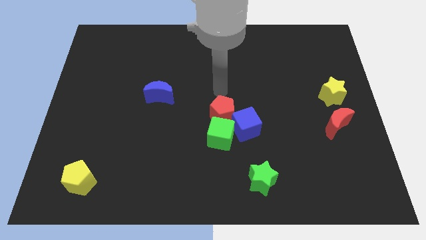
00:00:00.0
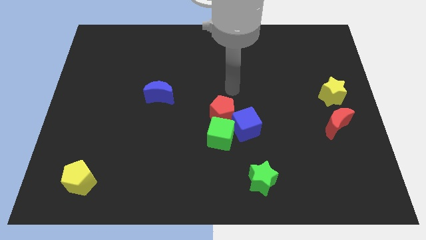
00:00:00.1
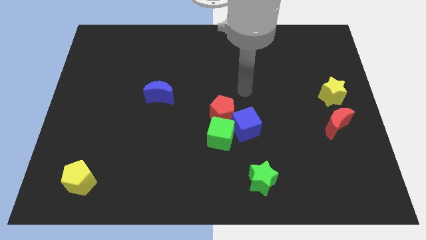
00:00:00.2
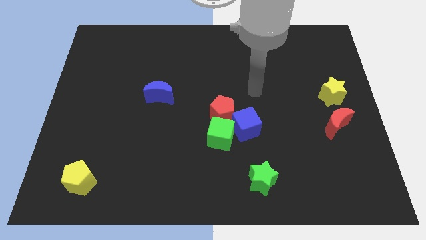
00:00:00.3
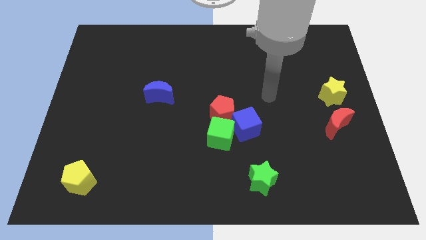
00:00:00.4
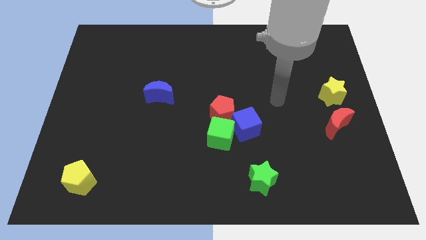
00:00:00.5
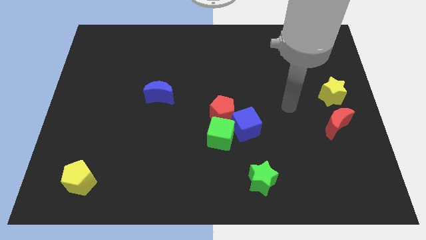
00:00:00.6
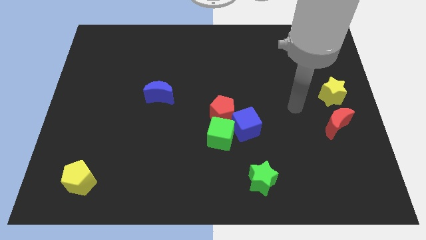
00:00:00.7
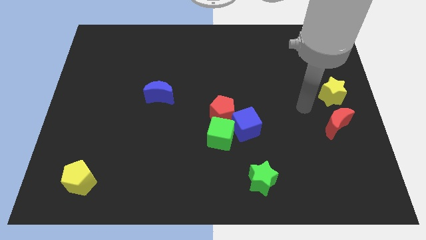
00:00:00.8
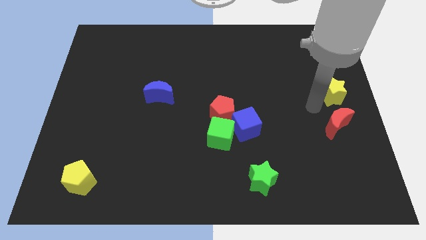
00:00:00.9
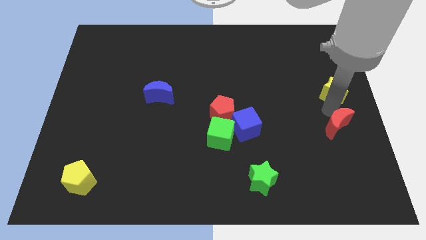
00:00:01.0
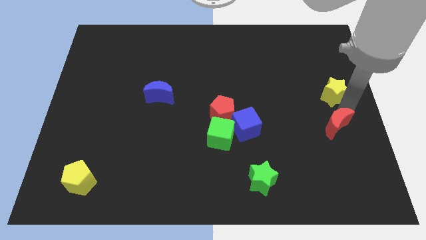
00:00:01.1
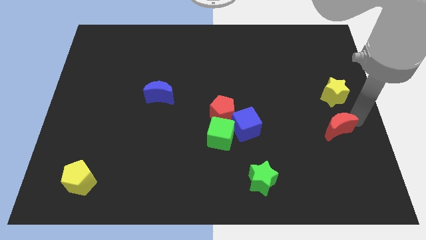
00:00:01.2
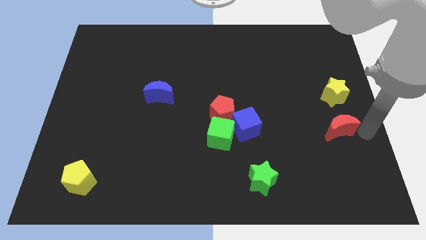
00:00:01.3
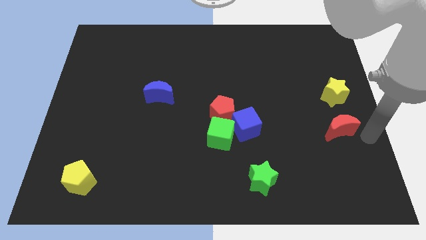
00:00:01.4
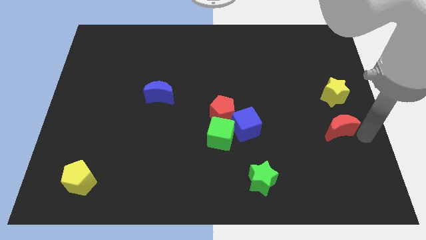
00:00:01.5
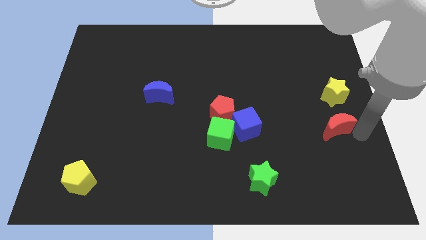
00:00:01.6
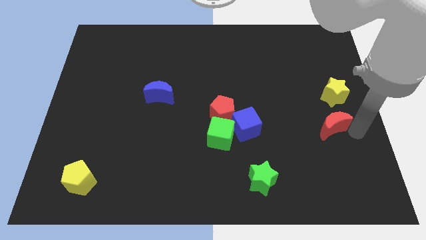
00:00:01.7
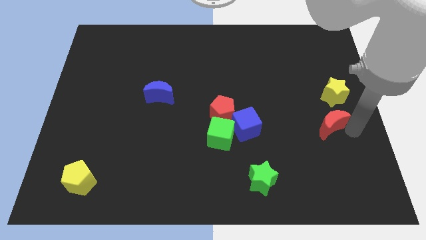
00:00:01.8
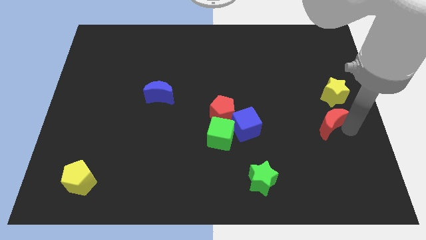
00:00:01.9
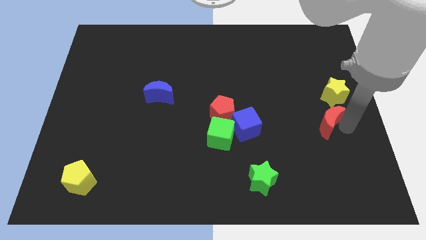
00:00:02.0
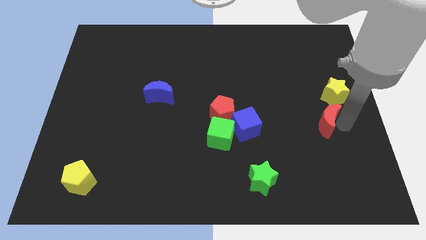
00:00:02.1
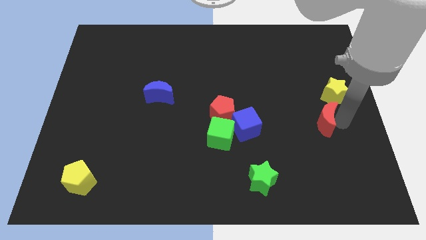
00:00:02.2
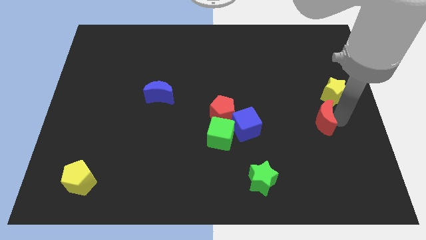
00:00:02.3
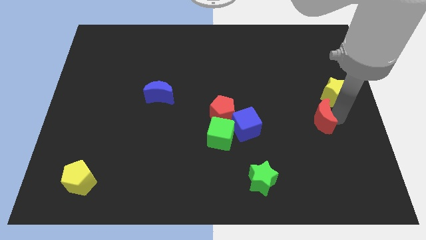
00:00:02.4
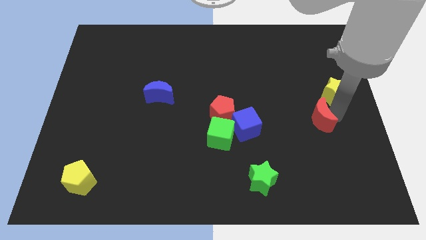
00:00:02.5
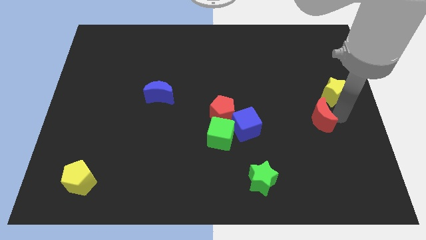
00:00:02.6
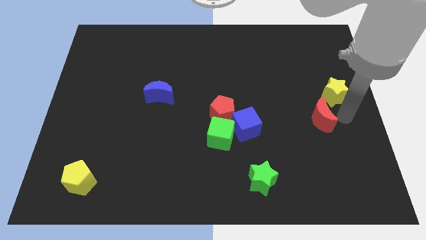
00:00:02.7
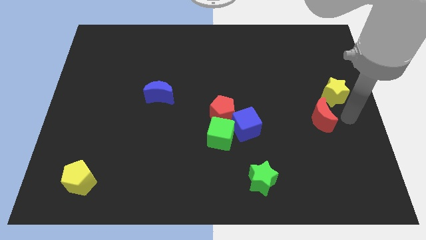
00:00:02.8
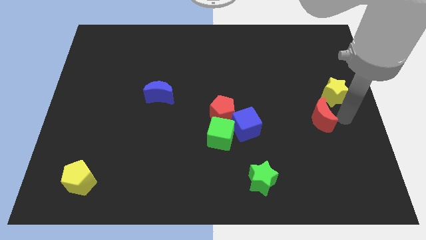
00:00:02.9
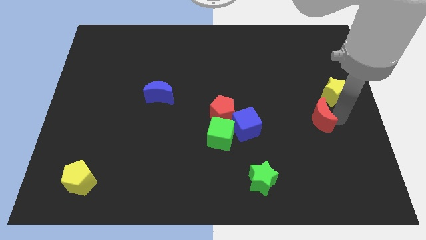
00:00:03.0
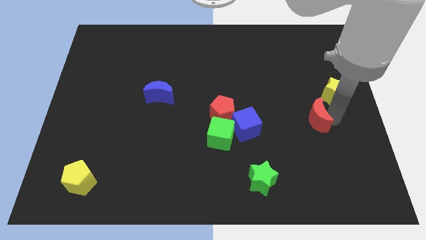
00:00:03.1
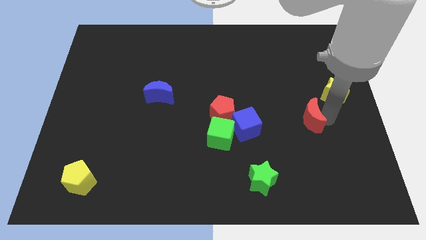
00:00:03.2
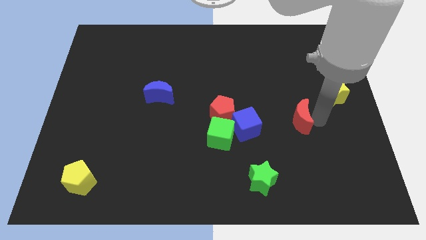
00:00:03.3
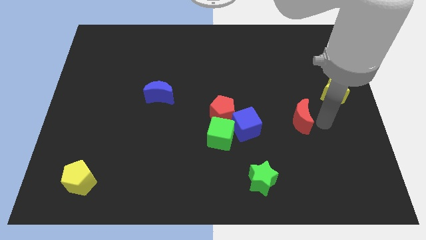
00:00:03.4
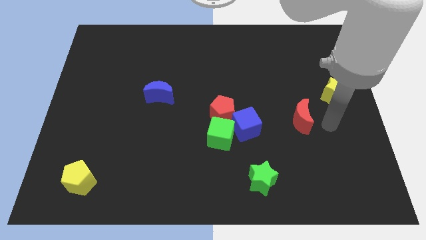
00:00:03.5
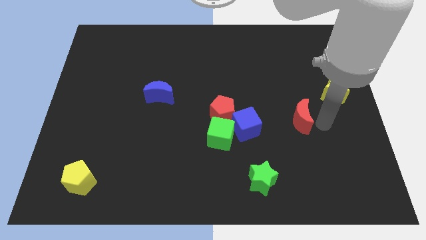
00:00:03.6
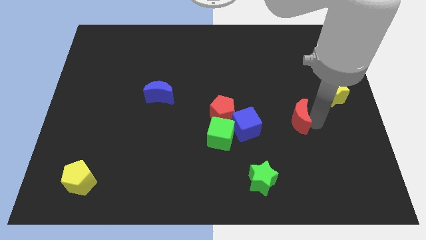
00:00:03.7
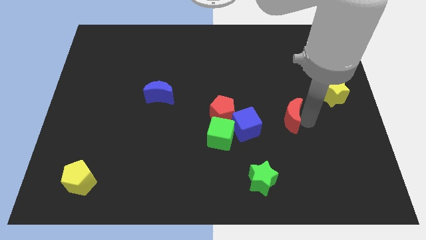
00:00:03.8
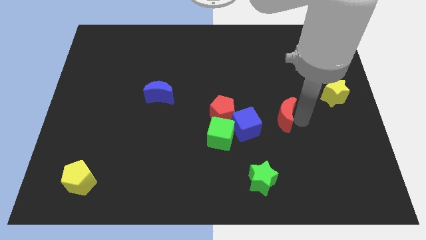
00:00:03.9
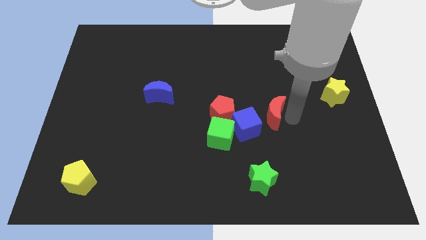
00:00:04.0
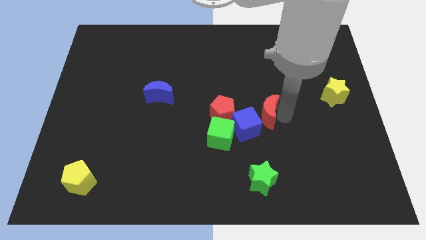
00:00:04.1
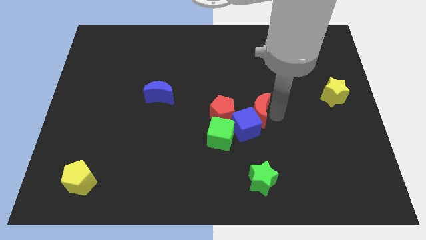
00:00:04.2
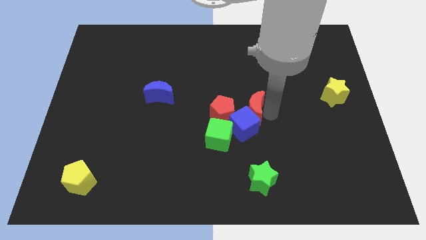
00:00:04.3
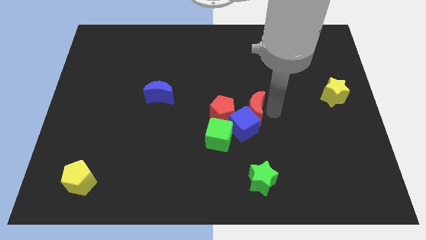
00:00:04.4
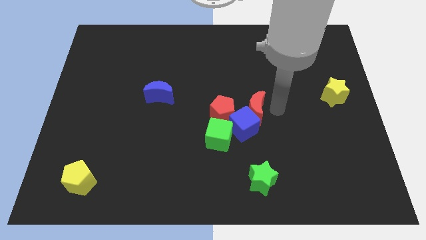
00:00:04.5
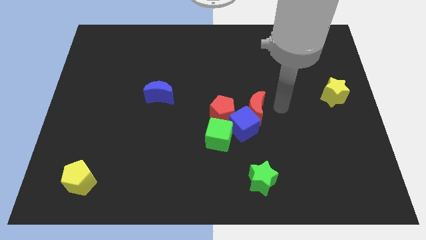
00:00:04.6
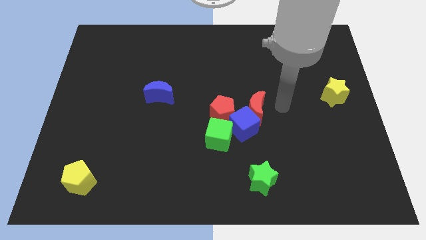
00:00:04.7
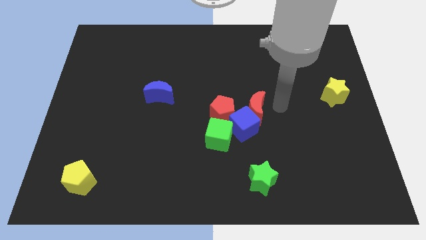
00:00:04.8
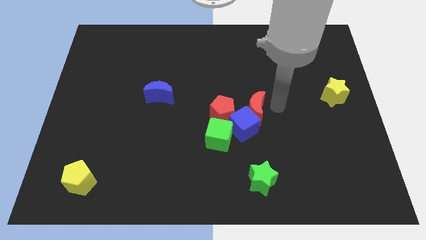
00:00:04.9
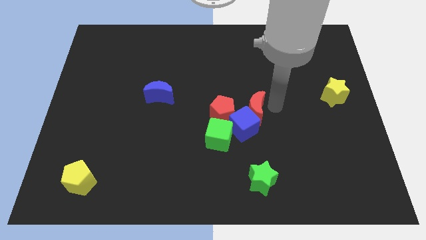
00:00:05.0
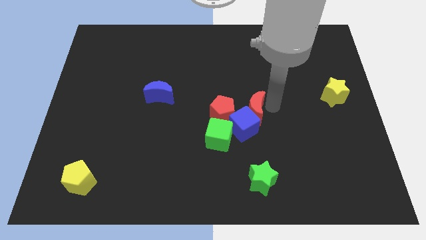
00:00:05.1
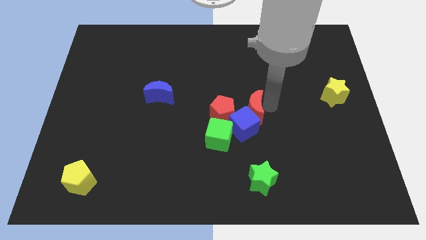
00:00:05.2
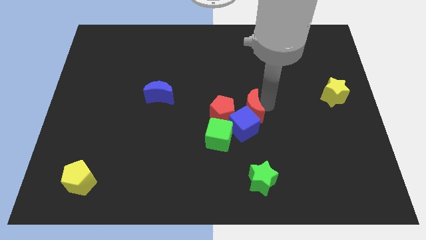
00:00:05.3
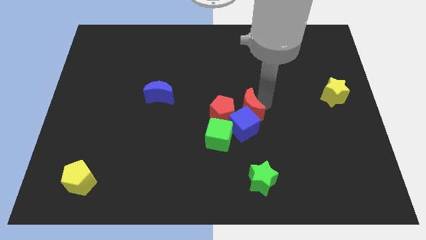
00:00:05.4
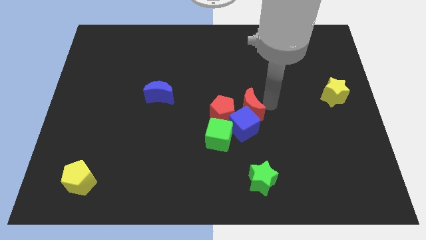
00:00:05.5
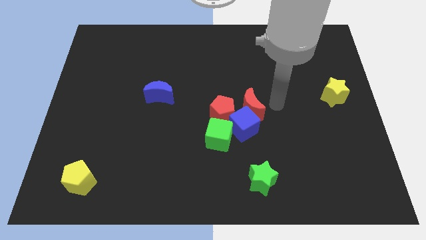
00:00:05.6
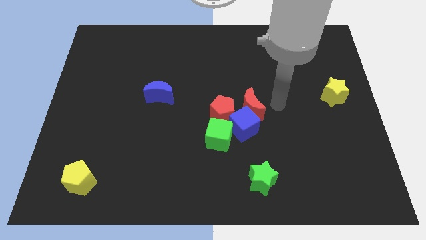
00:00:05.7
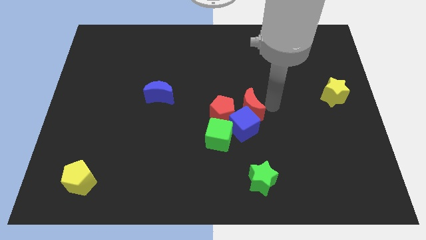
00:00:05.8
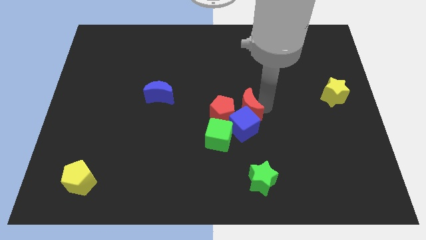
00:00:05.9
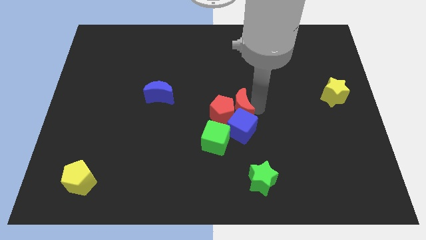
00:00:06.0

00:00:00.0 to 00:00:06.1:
put the red moon towards the red pentagon

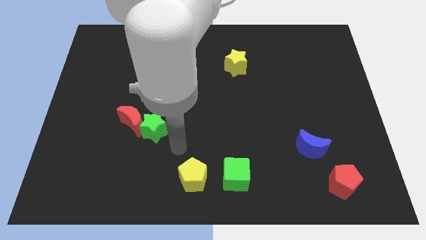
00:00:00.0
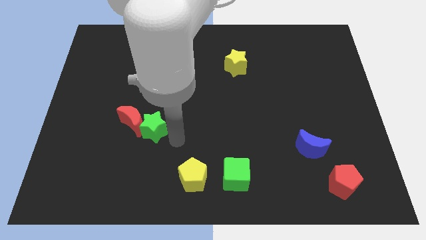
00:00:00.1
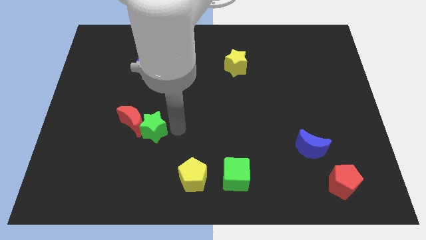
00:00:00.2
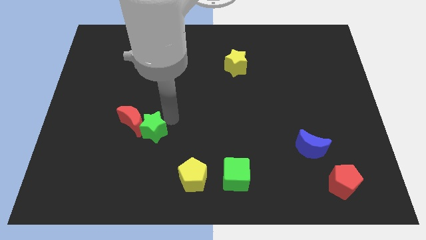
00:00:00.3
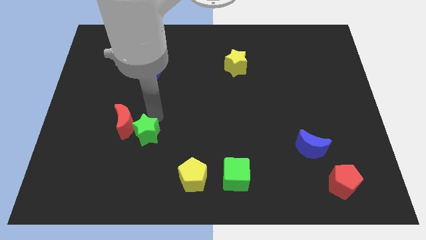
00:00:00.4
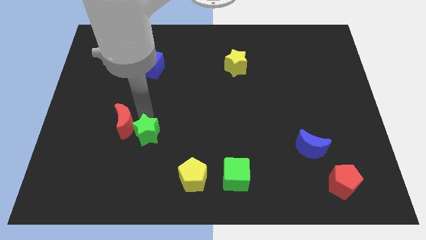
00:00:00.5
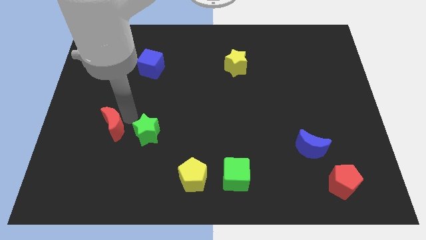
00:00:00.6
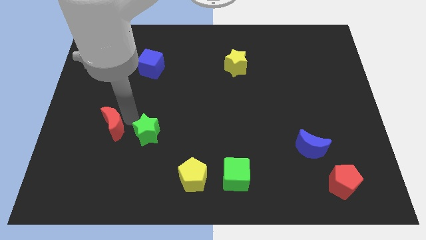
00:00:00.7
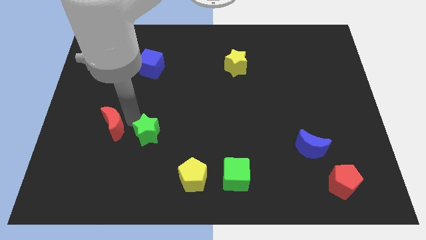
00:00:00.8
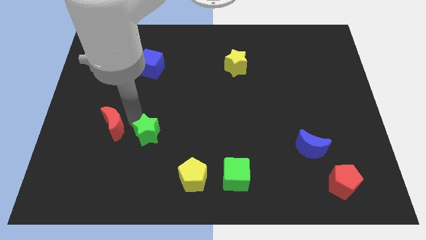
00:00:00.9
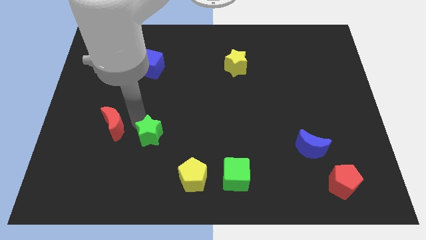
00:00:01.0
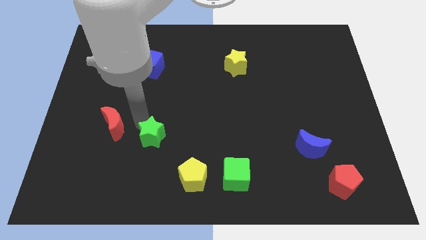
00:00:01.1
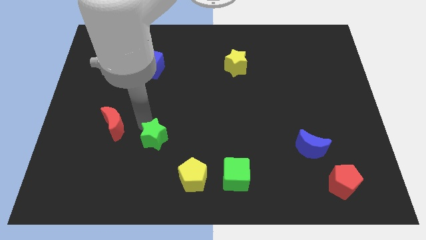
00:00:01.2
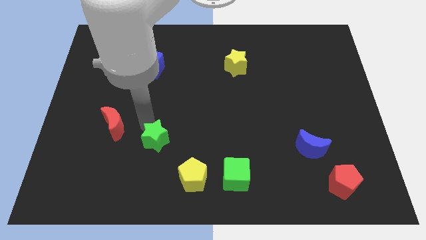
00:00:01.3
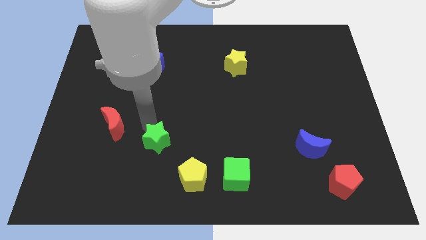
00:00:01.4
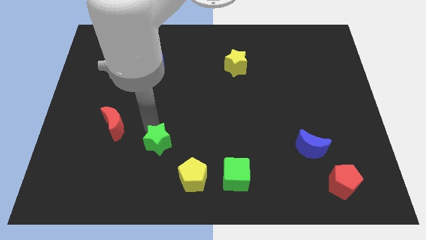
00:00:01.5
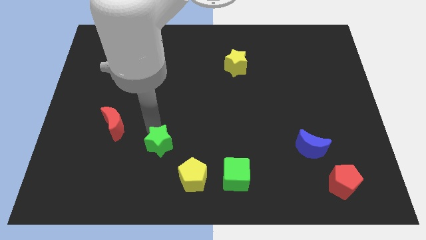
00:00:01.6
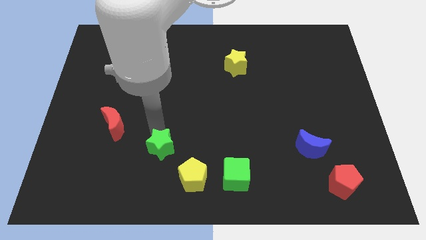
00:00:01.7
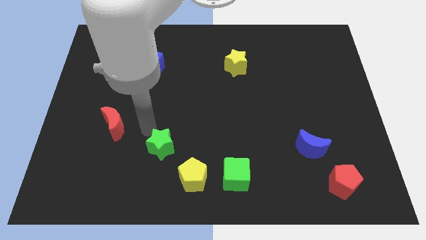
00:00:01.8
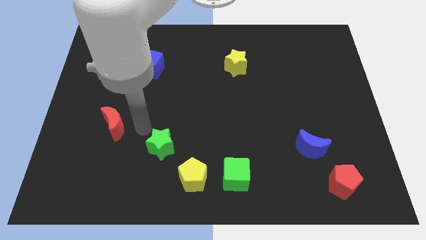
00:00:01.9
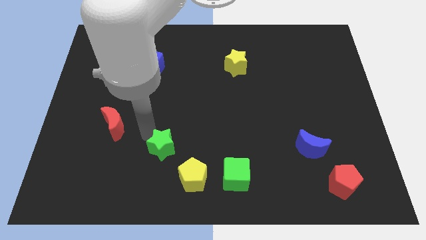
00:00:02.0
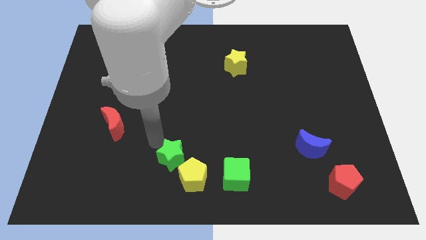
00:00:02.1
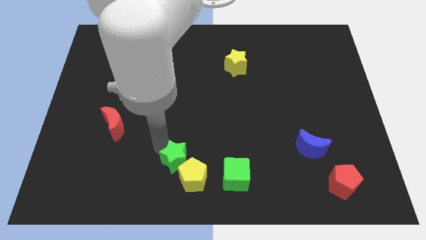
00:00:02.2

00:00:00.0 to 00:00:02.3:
move the green star to the yellow pentagon
